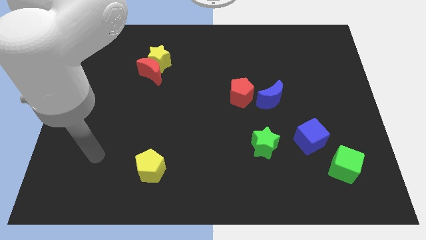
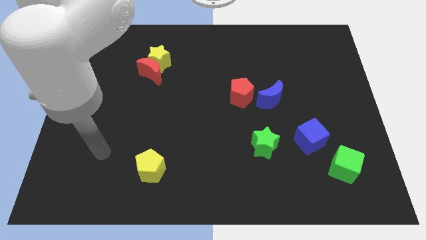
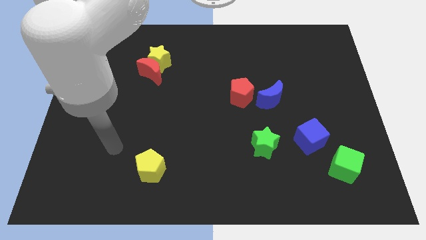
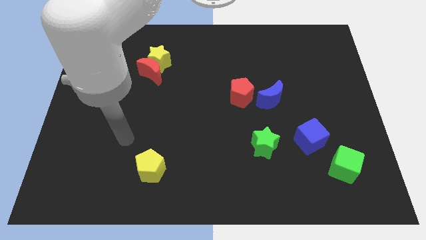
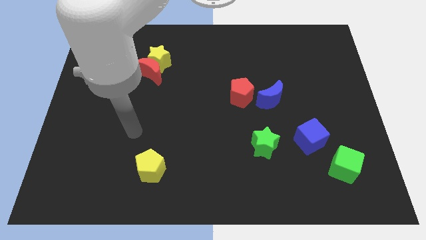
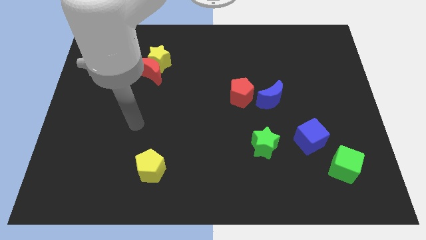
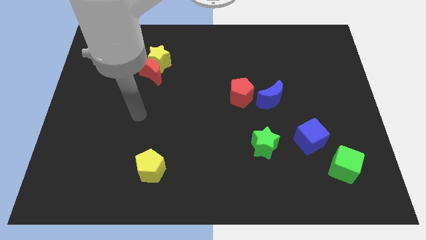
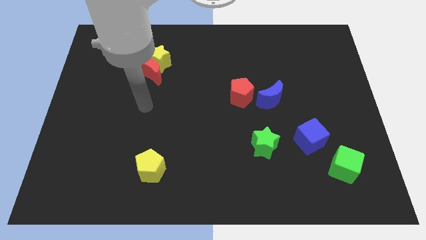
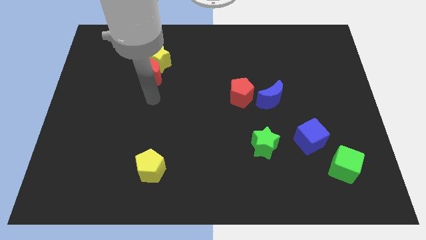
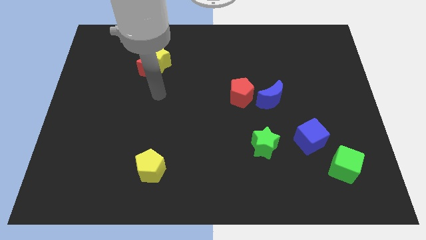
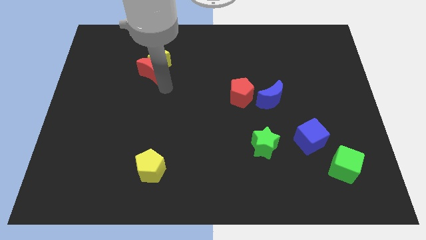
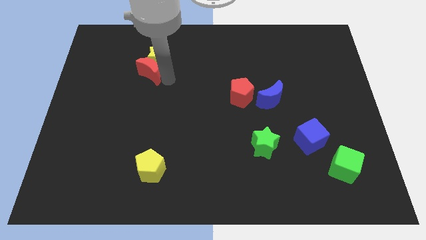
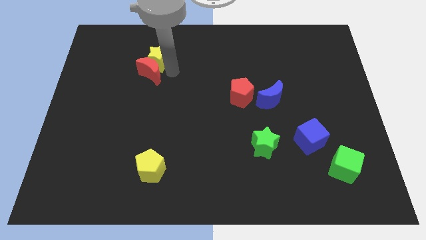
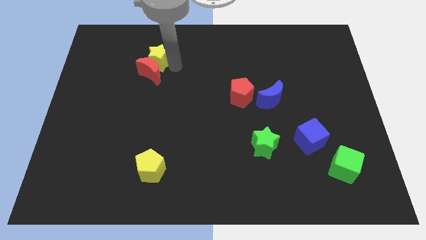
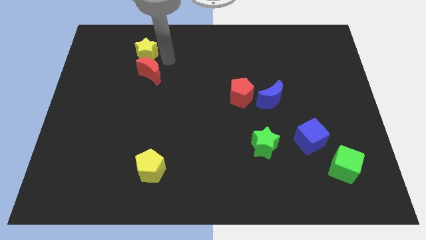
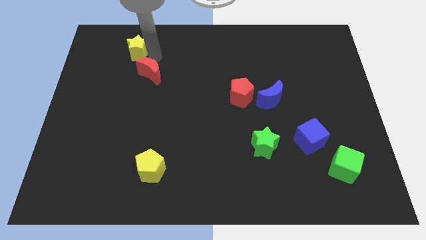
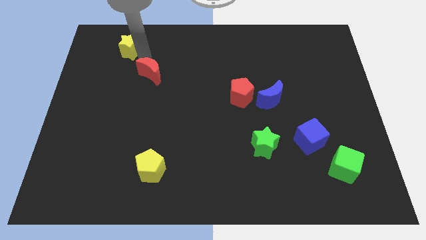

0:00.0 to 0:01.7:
separate the red moon from the yellow star

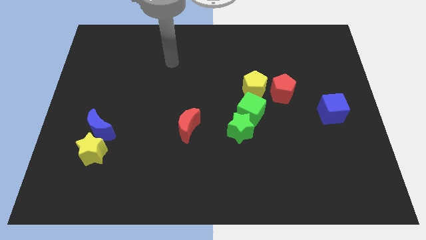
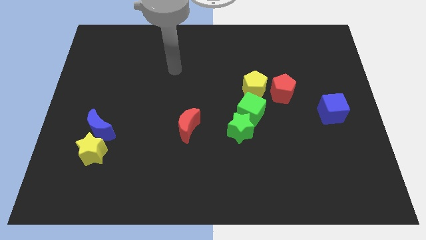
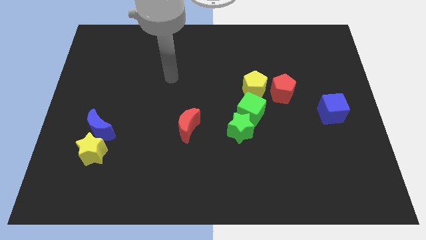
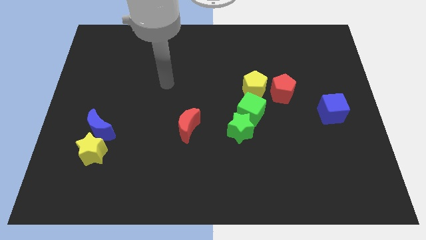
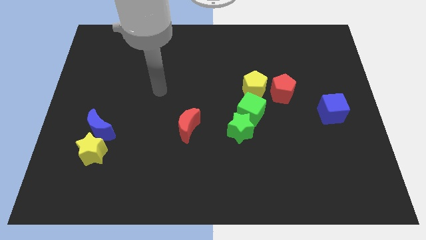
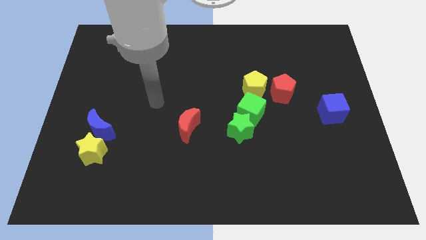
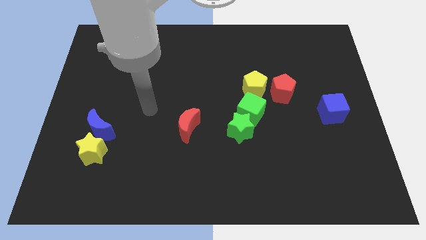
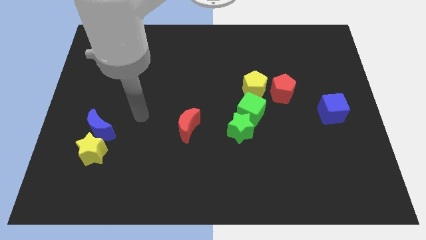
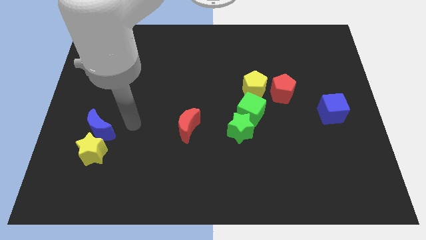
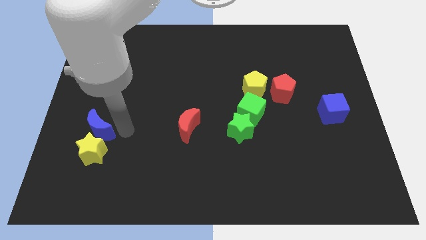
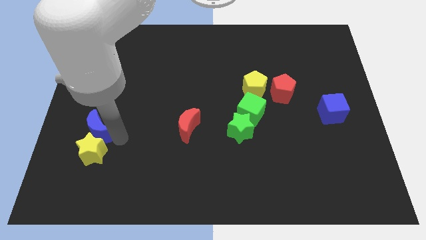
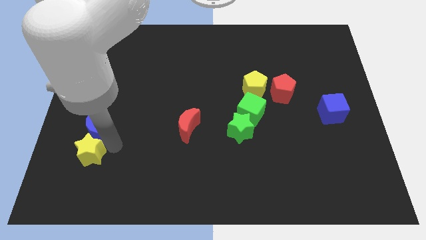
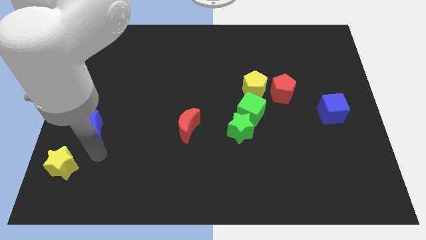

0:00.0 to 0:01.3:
pull the blue moon apart from the yellow star

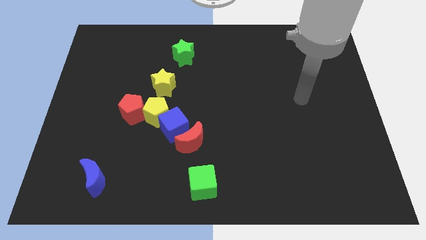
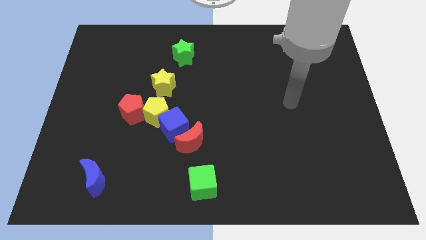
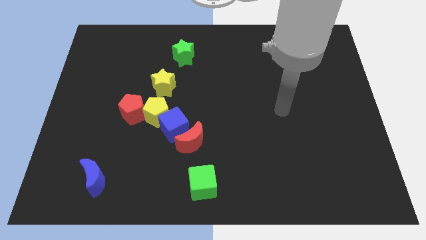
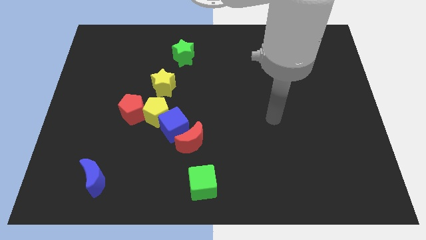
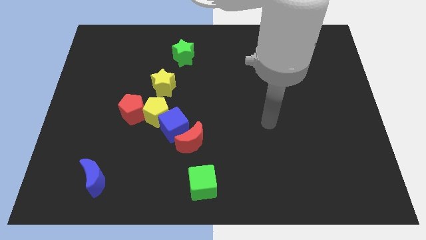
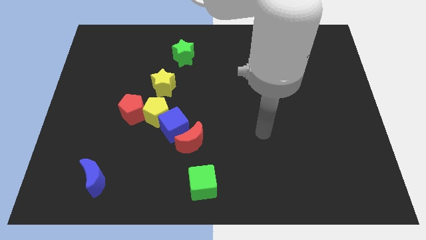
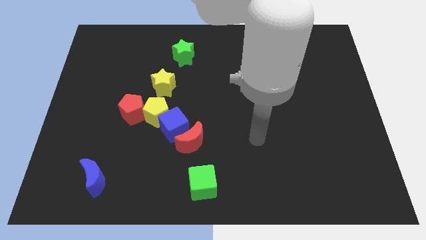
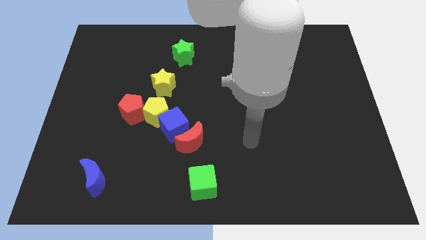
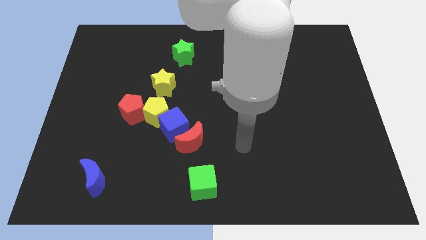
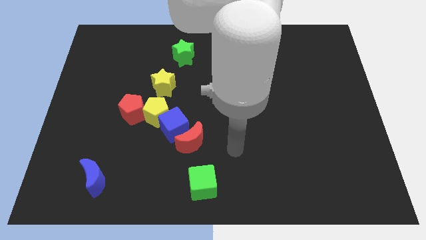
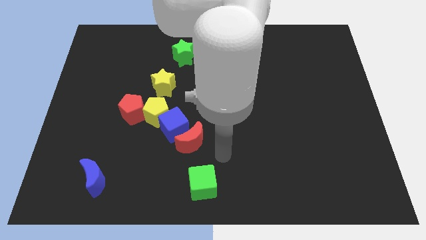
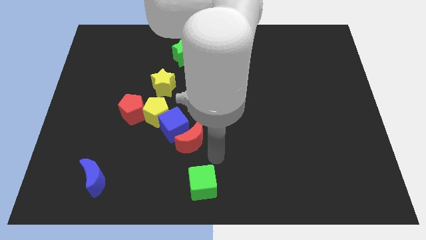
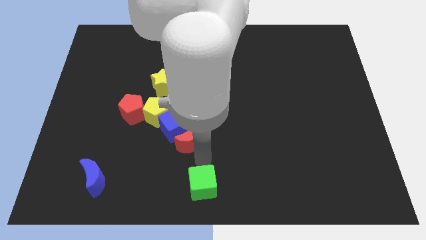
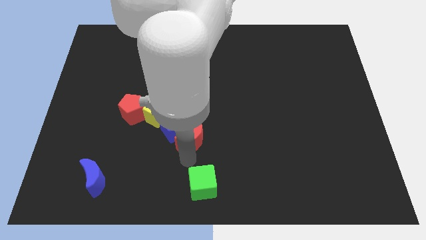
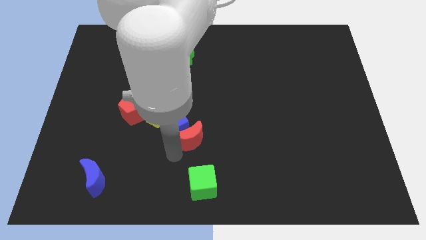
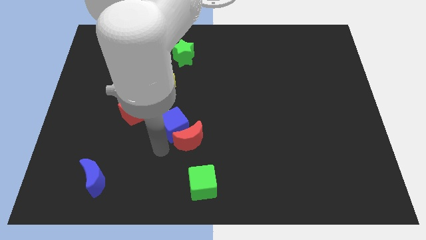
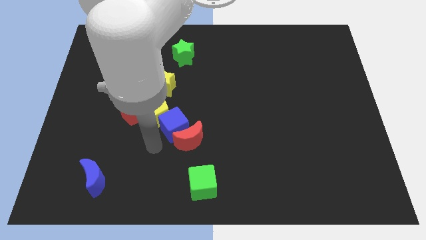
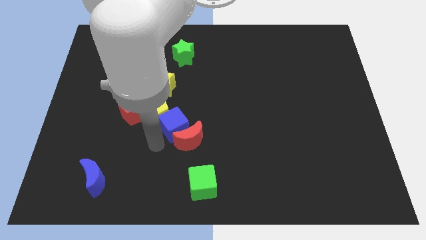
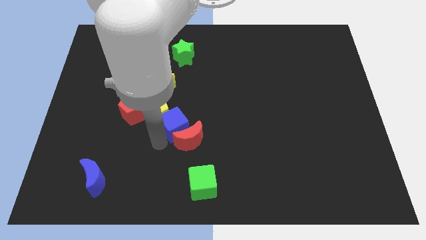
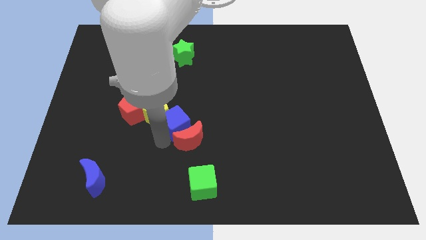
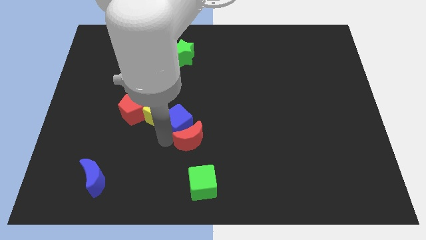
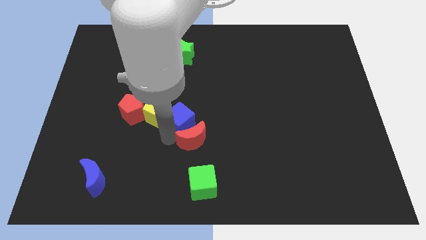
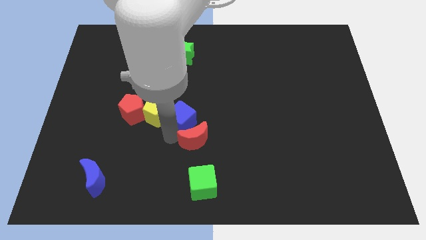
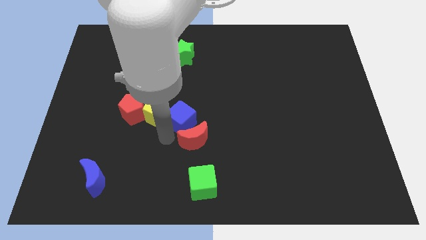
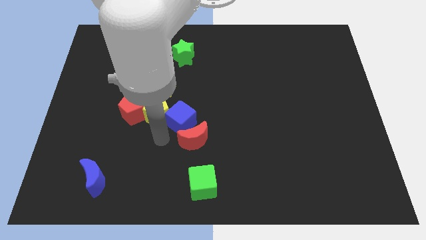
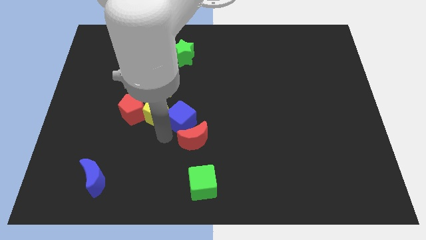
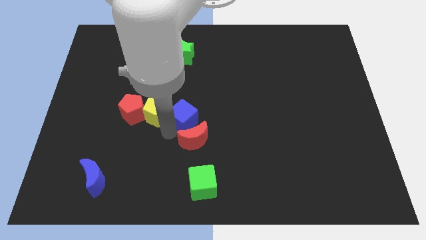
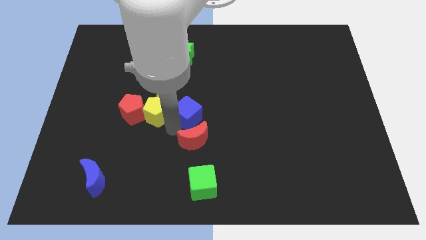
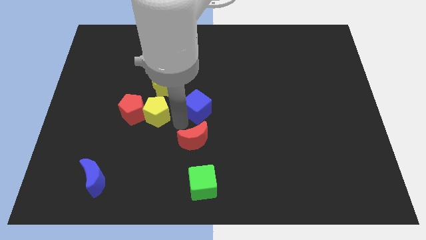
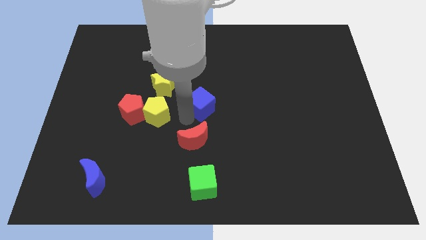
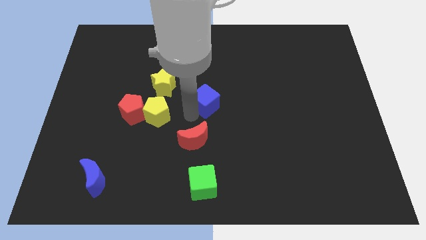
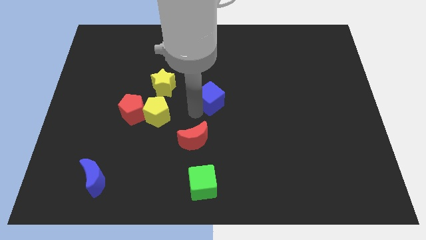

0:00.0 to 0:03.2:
pull the blue cube apart from the yellow pentagon and red moon

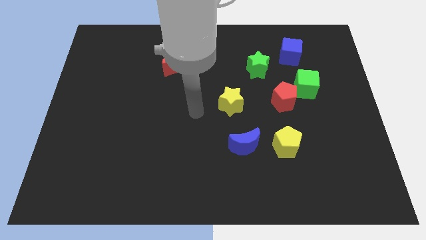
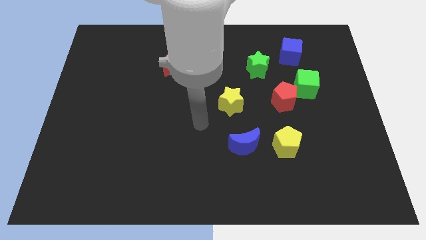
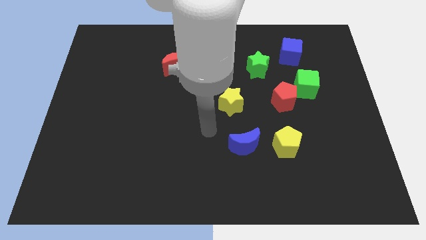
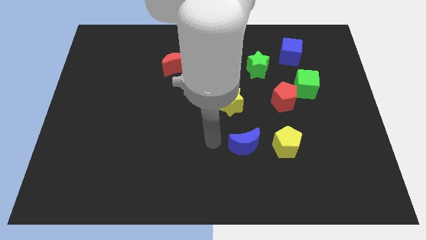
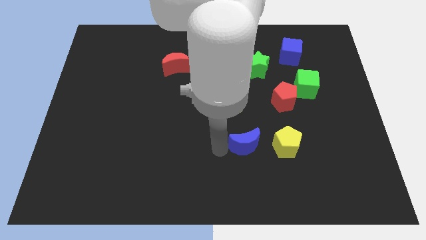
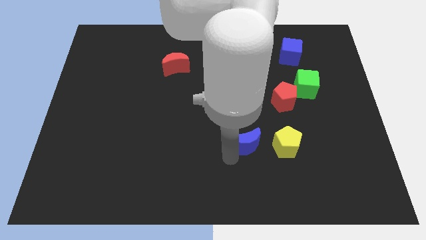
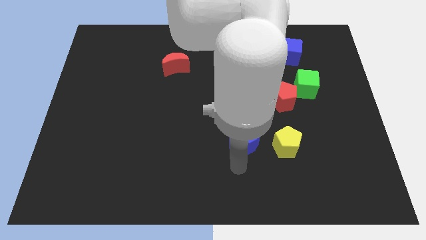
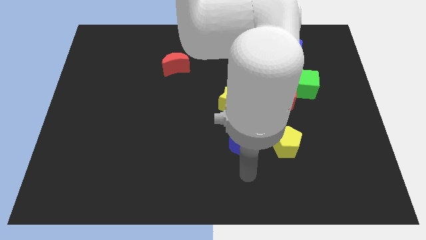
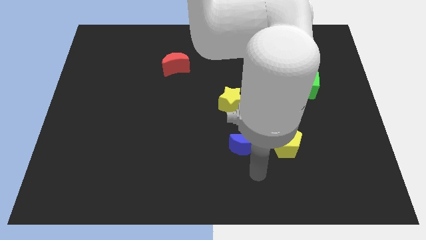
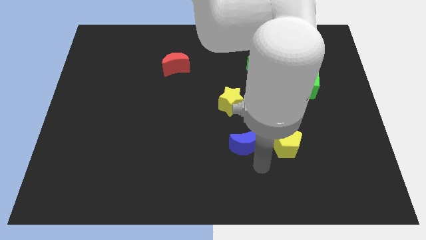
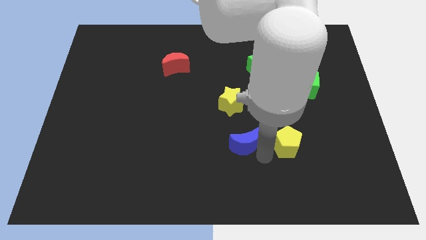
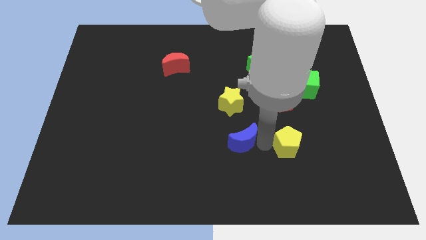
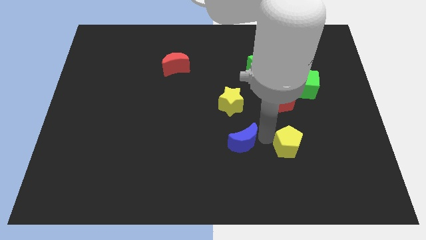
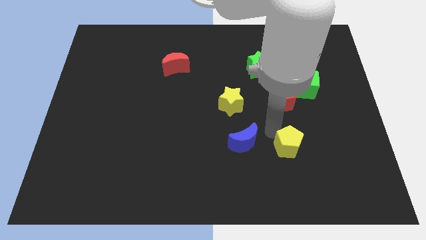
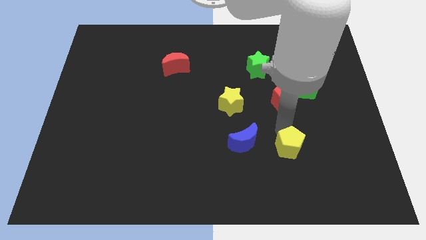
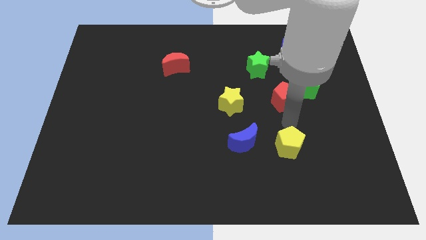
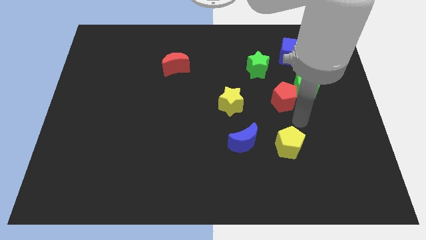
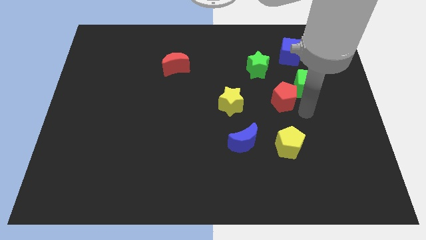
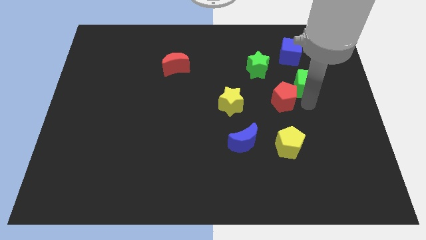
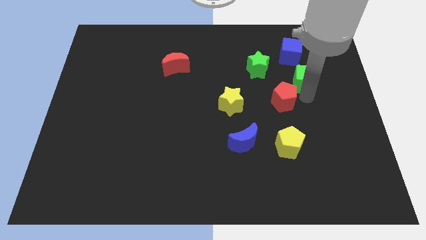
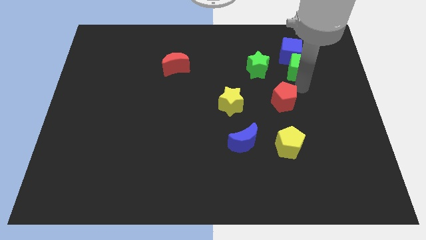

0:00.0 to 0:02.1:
pull the red pentagon apart from the green cube

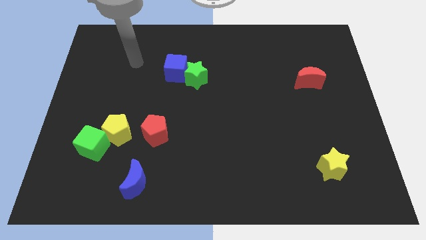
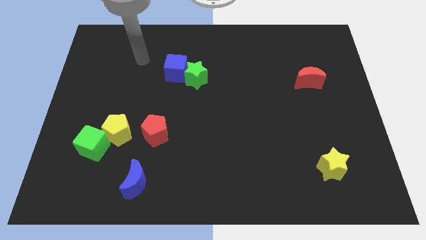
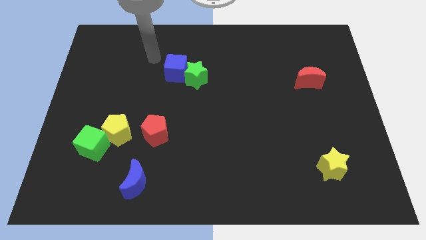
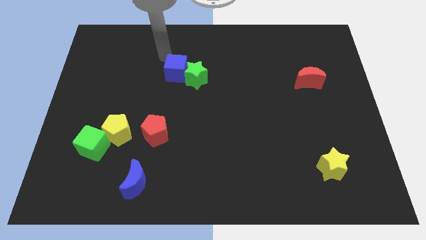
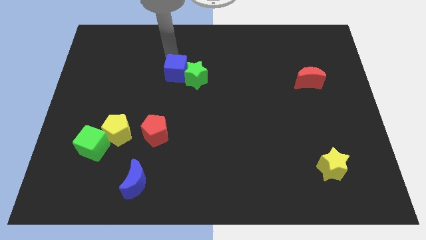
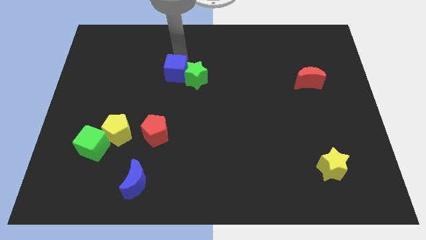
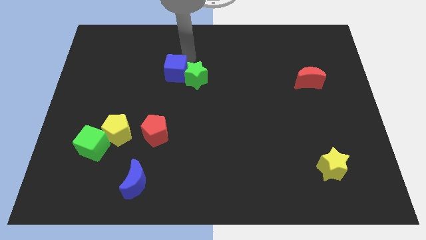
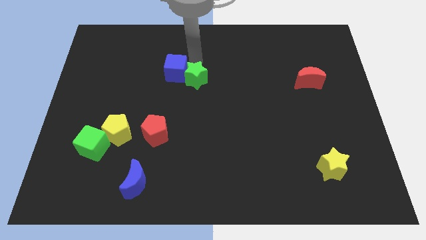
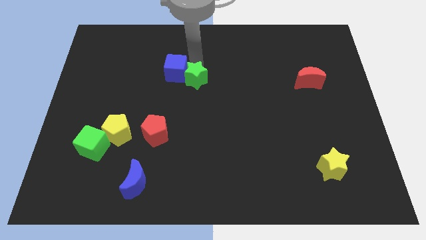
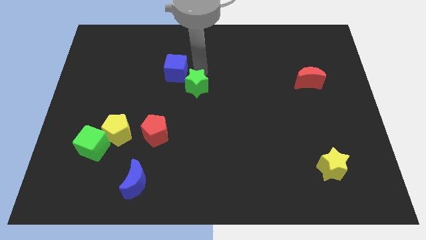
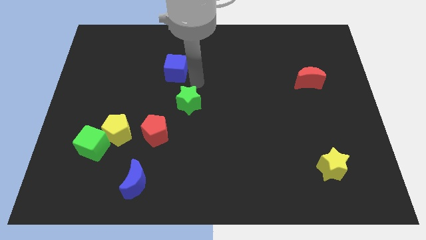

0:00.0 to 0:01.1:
separate the blue cube from the green star
